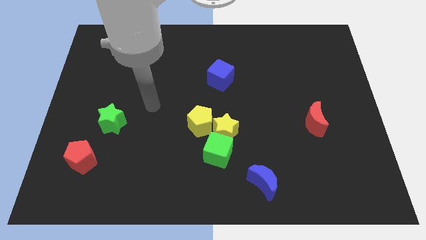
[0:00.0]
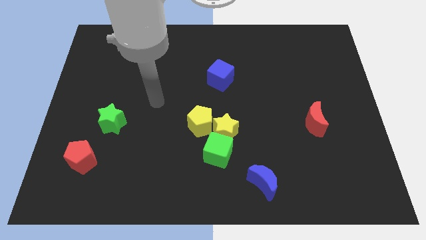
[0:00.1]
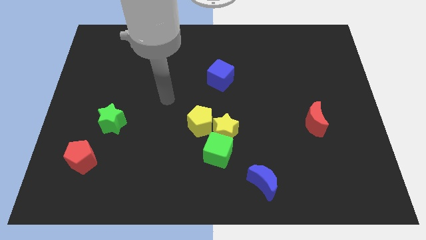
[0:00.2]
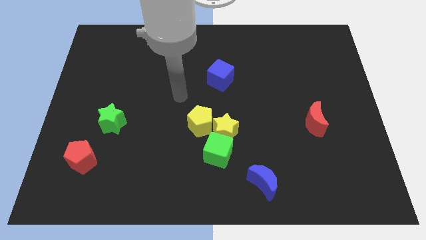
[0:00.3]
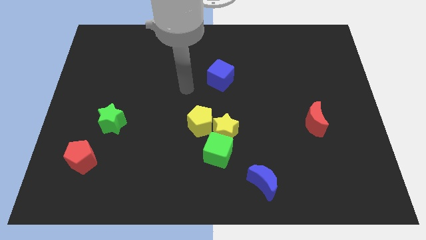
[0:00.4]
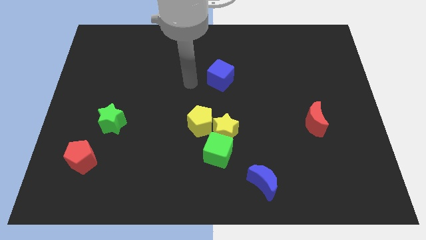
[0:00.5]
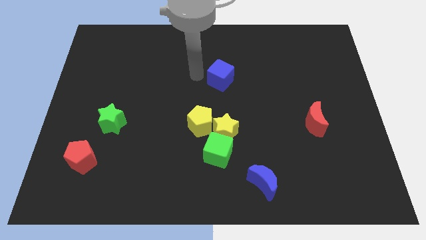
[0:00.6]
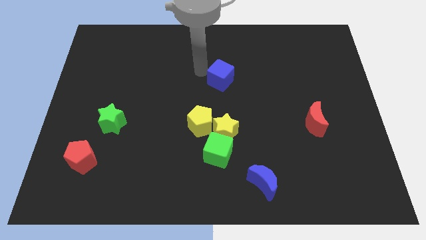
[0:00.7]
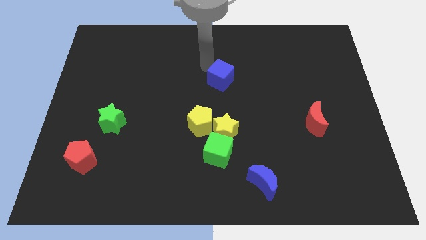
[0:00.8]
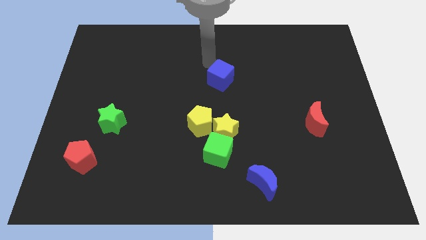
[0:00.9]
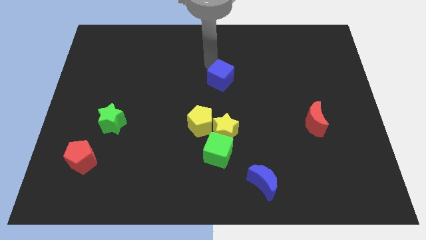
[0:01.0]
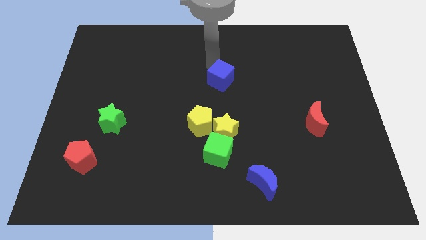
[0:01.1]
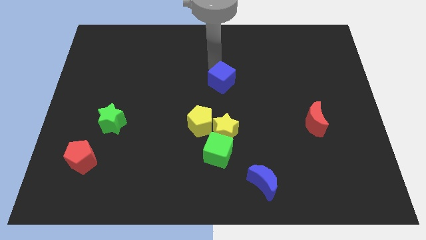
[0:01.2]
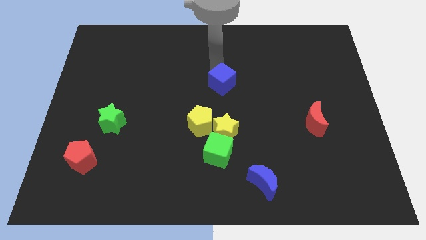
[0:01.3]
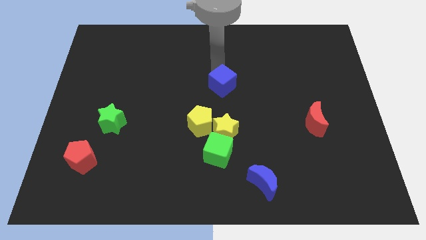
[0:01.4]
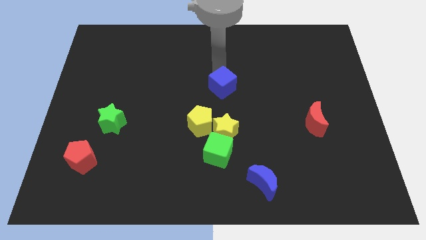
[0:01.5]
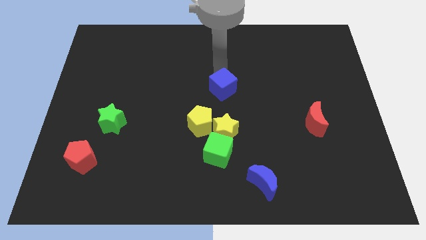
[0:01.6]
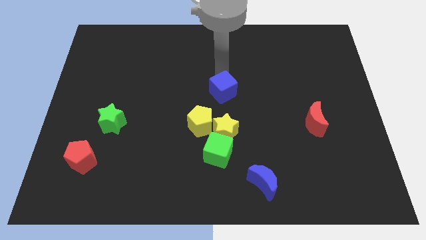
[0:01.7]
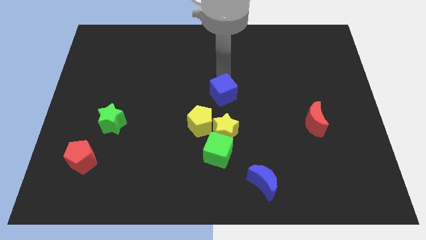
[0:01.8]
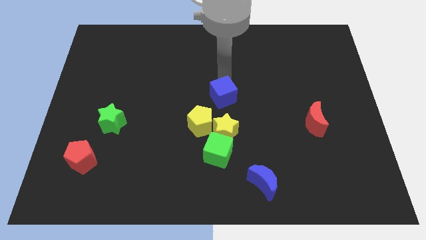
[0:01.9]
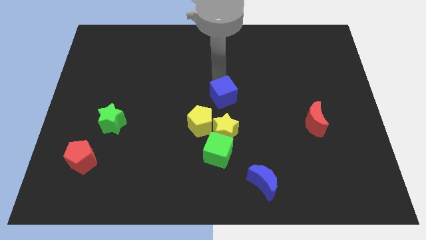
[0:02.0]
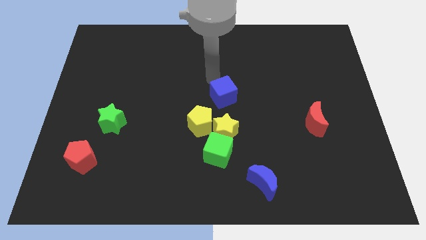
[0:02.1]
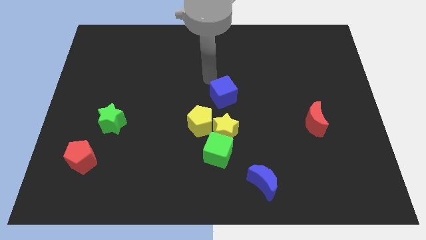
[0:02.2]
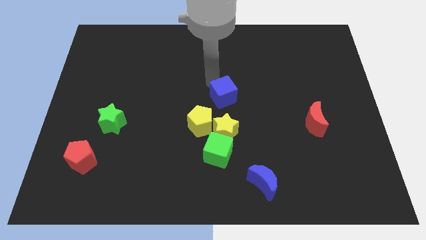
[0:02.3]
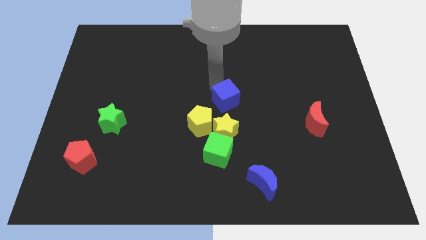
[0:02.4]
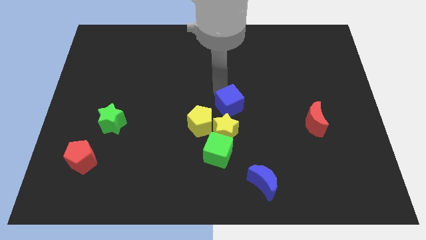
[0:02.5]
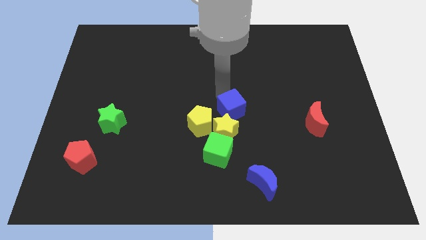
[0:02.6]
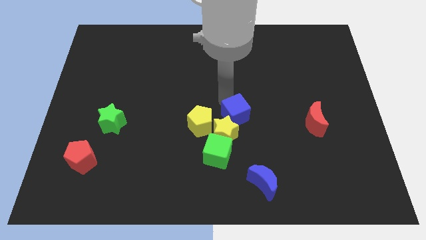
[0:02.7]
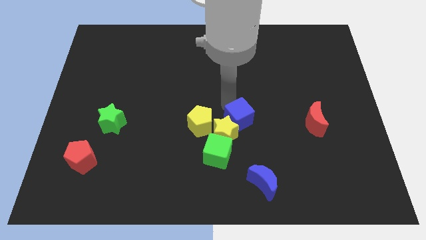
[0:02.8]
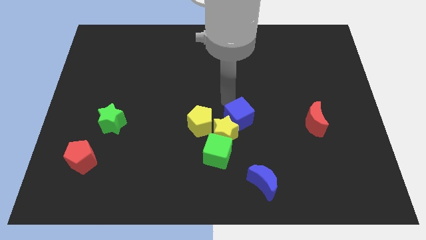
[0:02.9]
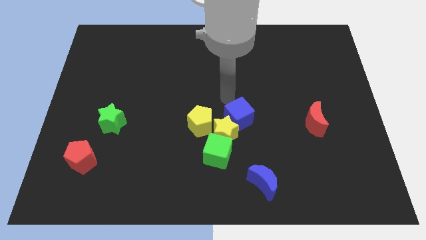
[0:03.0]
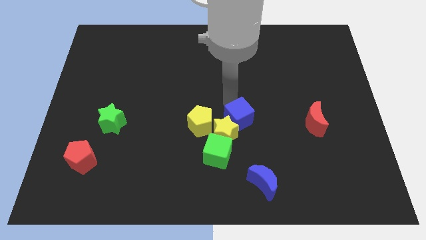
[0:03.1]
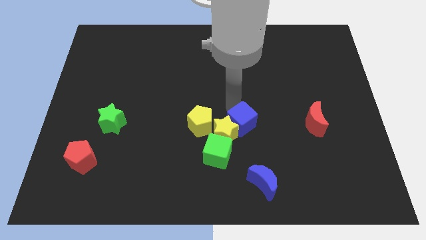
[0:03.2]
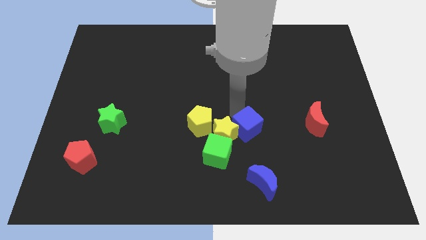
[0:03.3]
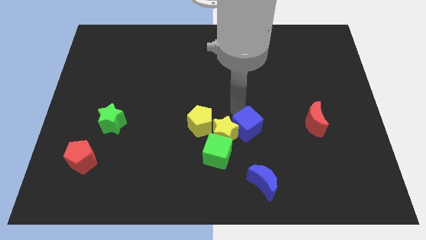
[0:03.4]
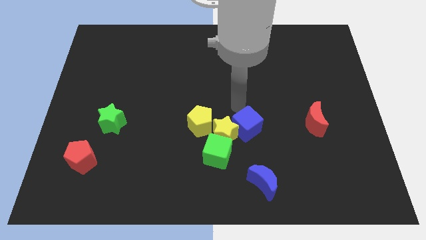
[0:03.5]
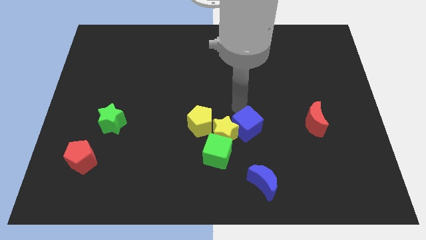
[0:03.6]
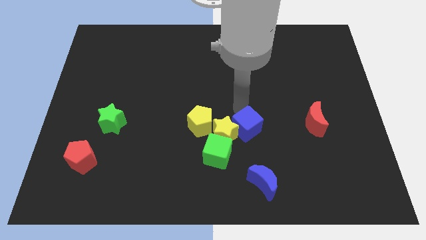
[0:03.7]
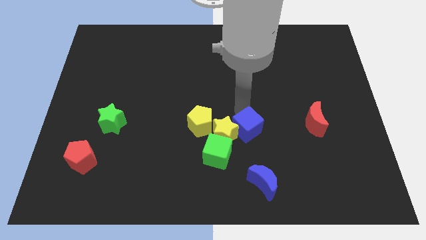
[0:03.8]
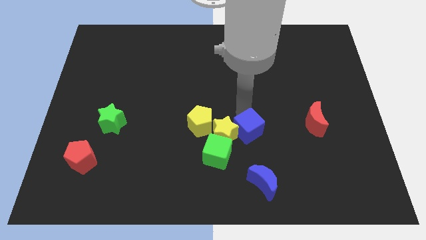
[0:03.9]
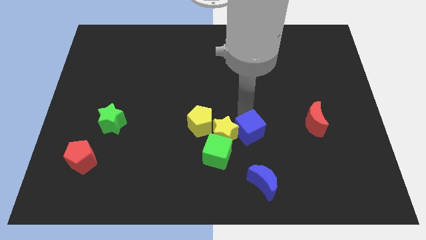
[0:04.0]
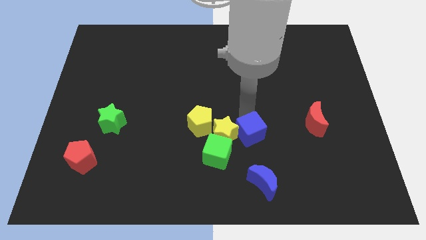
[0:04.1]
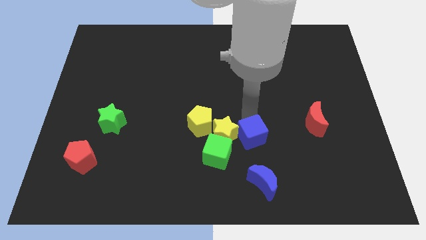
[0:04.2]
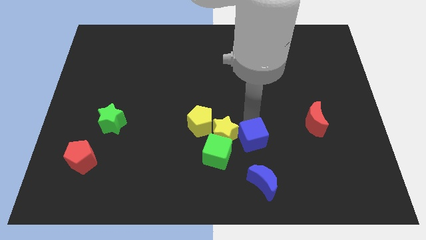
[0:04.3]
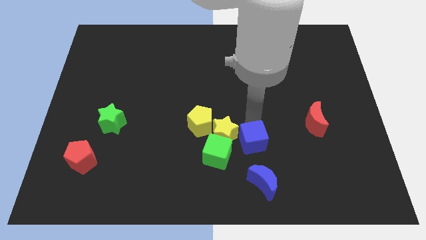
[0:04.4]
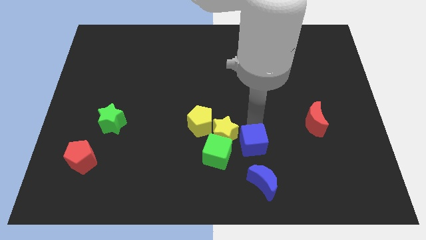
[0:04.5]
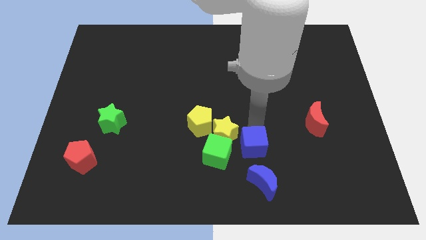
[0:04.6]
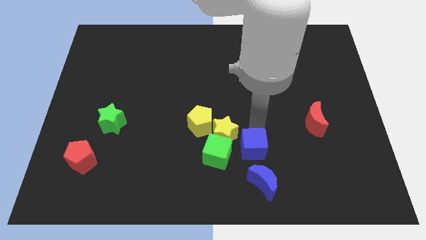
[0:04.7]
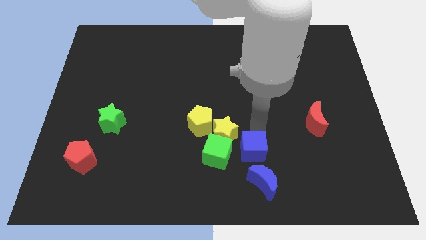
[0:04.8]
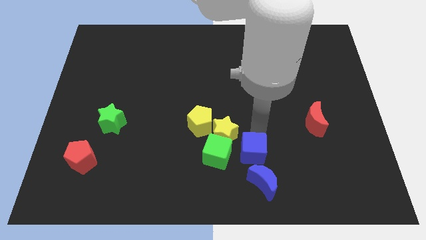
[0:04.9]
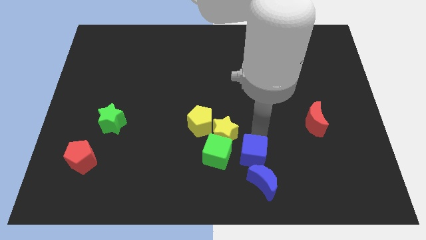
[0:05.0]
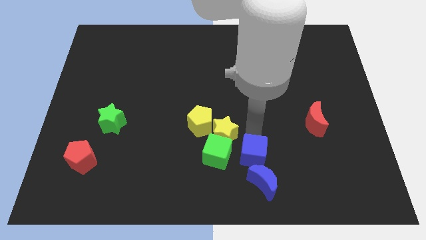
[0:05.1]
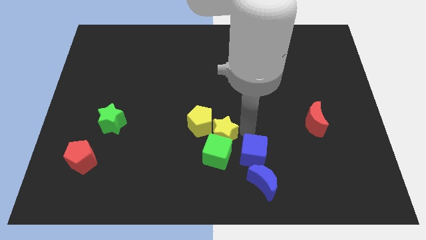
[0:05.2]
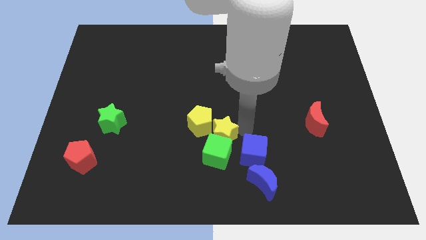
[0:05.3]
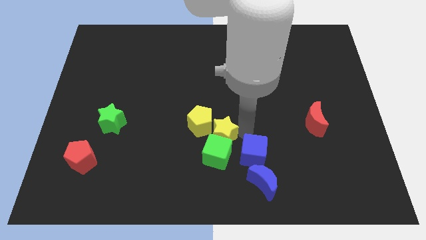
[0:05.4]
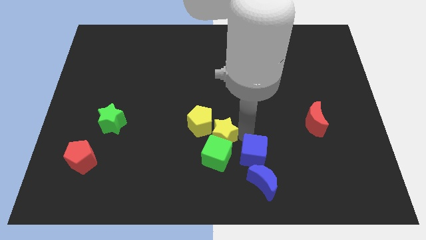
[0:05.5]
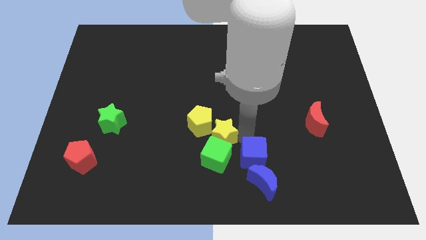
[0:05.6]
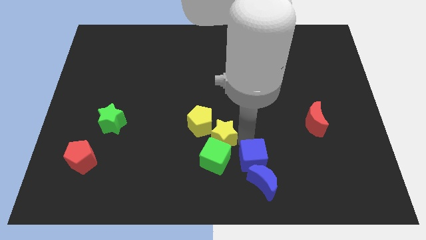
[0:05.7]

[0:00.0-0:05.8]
push the blue cube towards the blue moon
